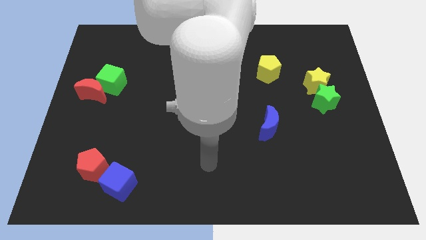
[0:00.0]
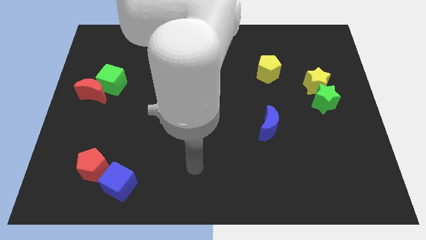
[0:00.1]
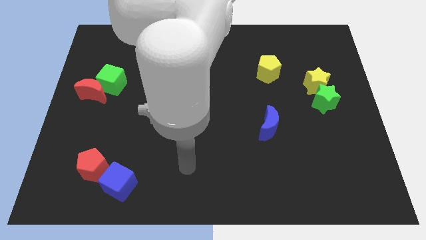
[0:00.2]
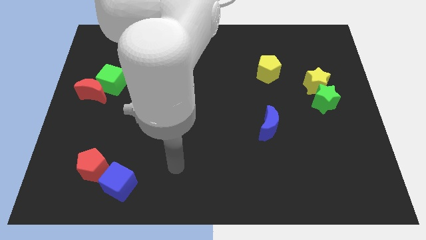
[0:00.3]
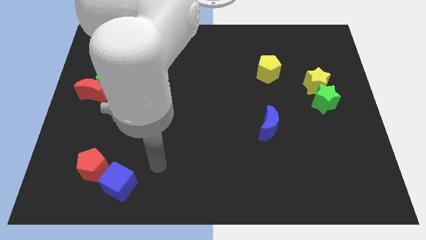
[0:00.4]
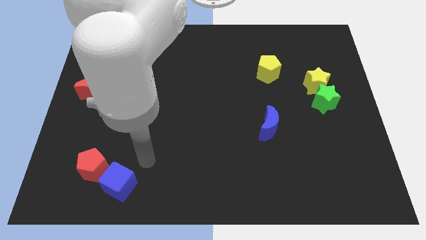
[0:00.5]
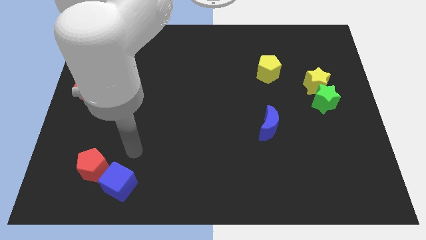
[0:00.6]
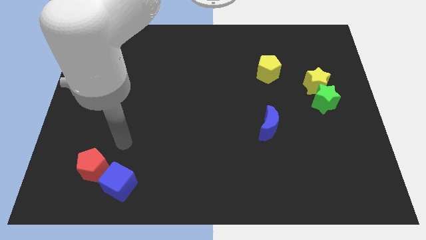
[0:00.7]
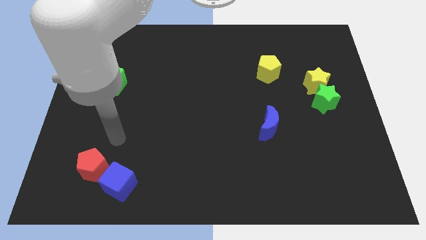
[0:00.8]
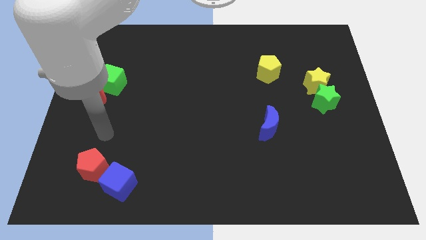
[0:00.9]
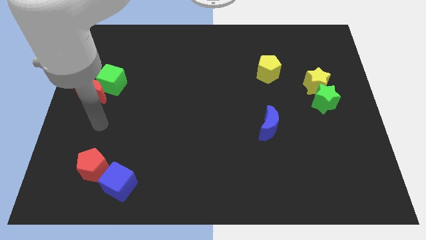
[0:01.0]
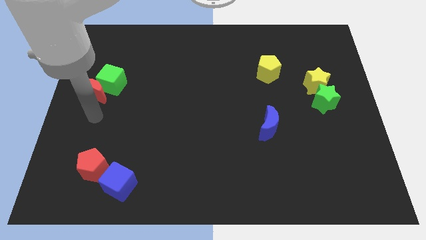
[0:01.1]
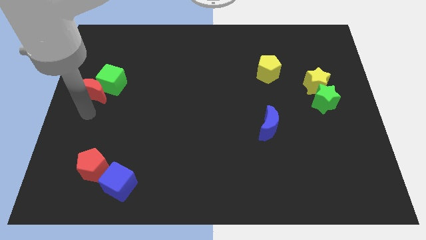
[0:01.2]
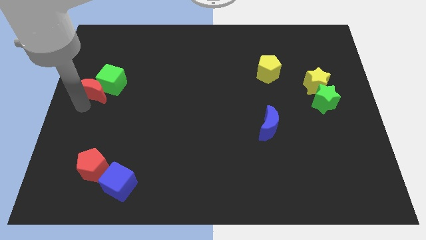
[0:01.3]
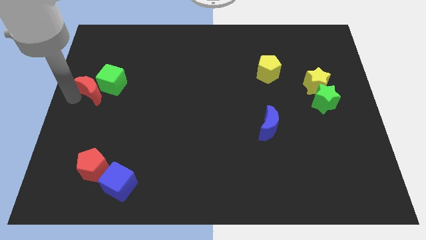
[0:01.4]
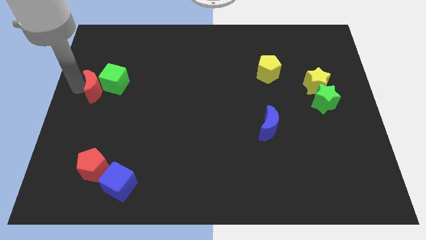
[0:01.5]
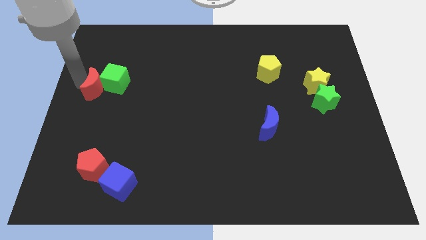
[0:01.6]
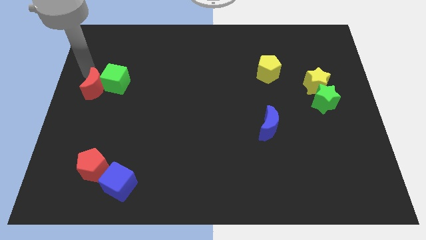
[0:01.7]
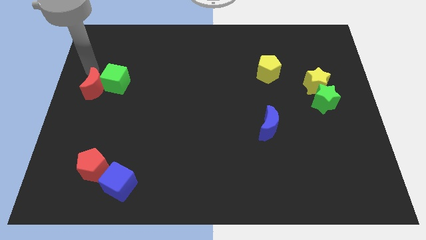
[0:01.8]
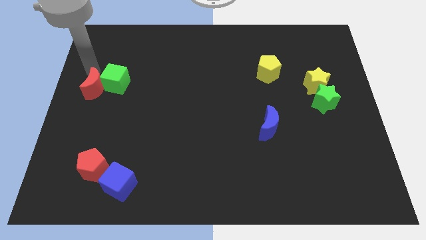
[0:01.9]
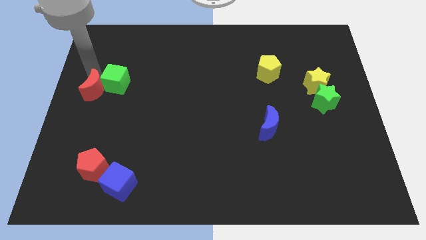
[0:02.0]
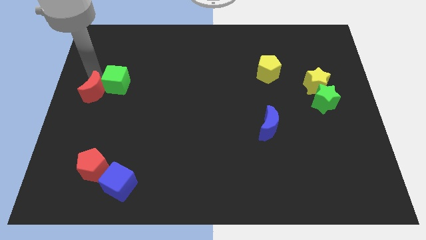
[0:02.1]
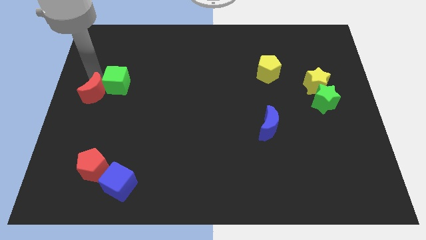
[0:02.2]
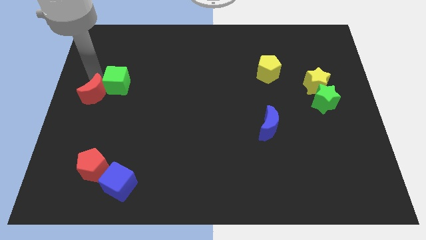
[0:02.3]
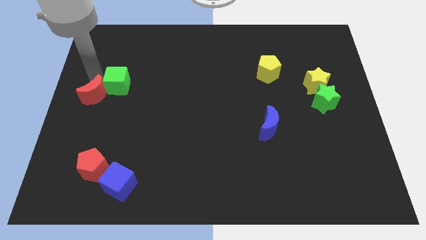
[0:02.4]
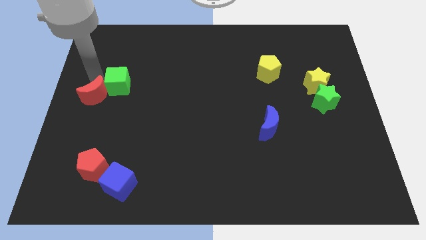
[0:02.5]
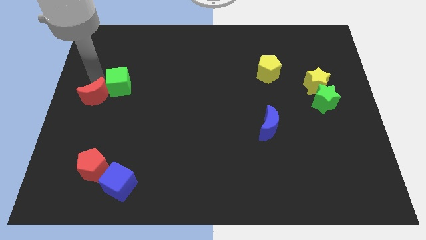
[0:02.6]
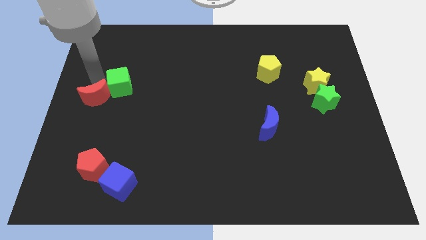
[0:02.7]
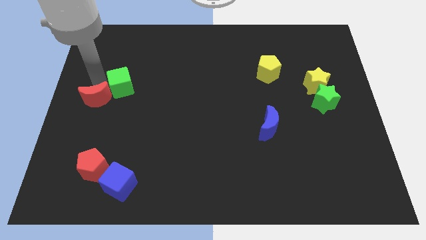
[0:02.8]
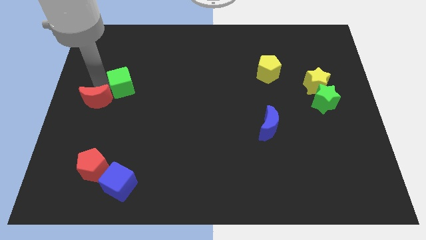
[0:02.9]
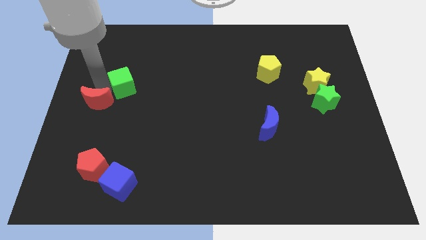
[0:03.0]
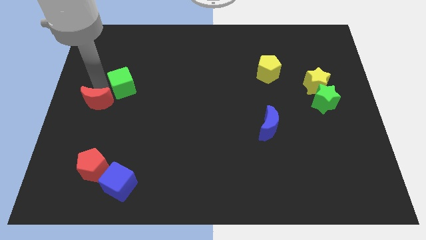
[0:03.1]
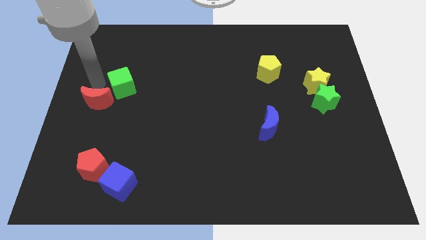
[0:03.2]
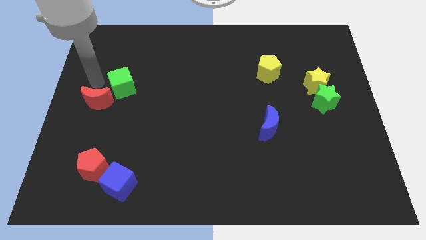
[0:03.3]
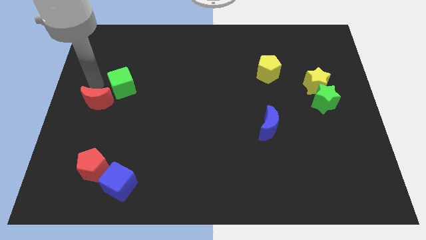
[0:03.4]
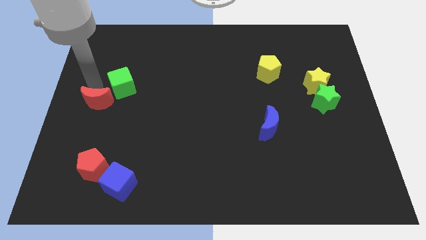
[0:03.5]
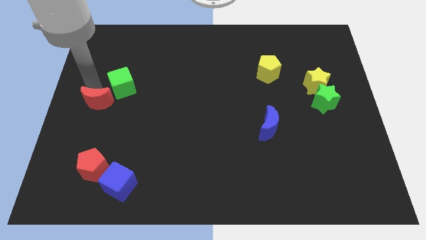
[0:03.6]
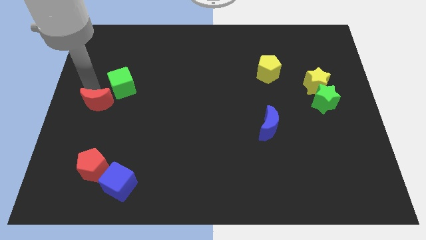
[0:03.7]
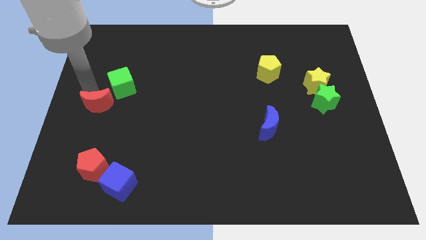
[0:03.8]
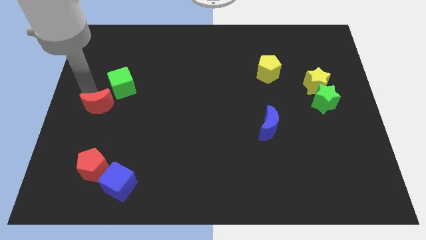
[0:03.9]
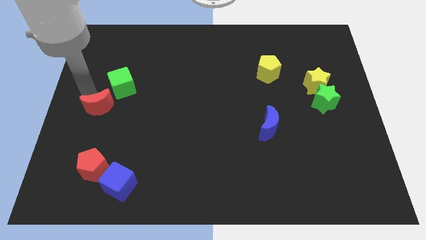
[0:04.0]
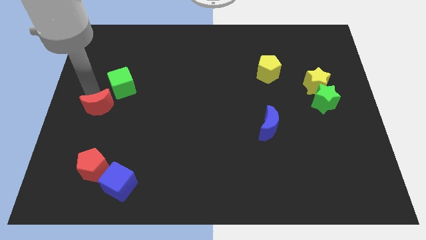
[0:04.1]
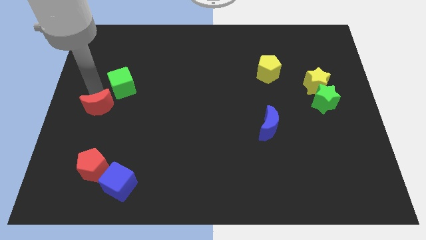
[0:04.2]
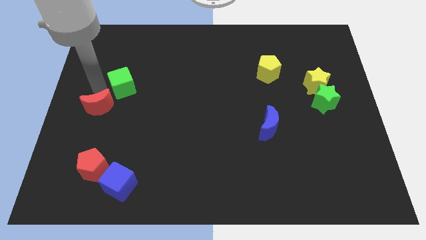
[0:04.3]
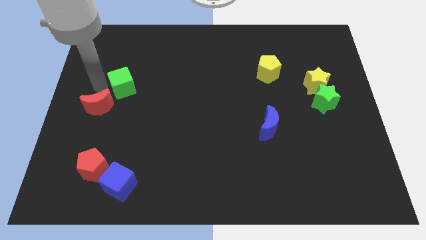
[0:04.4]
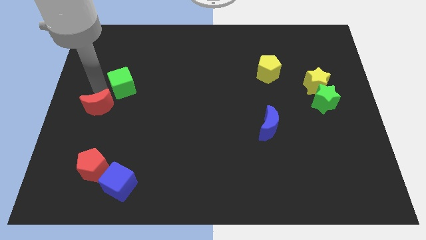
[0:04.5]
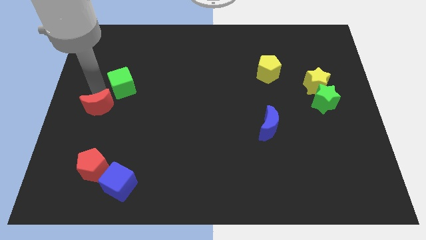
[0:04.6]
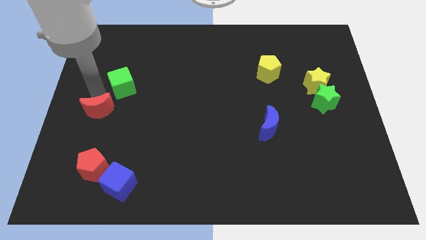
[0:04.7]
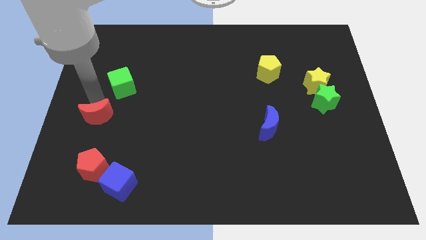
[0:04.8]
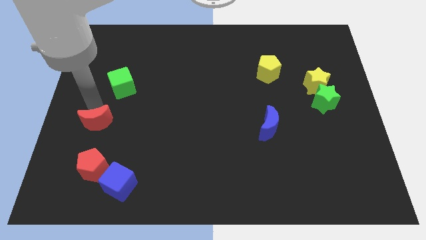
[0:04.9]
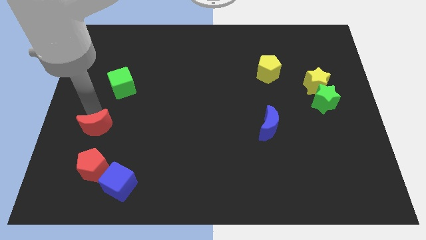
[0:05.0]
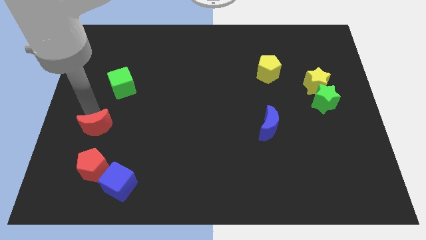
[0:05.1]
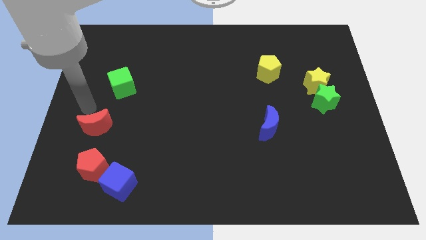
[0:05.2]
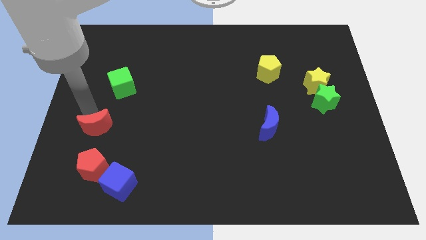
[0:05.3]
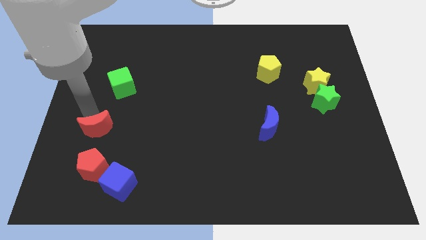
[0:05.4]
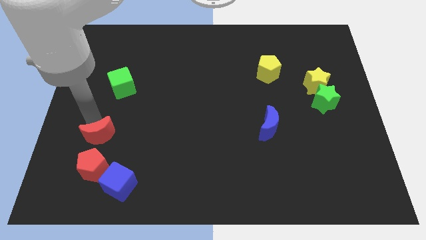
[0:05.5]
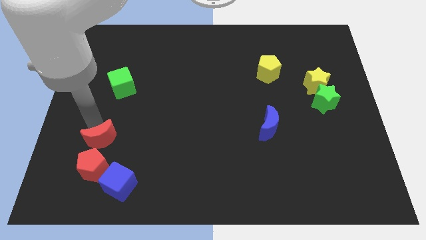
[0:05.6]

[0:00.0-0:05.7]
put the red moon diagonally up and to the left of the blue cube
